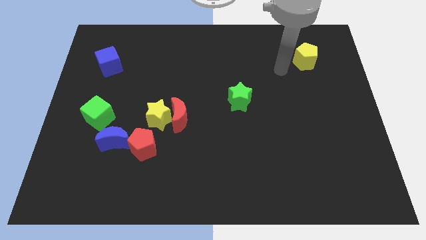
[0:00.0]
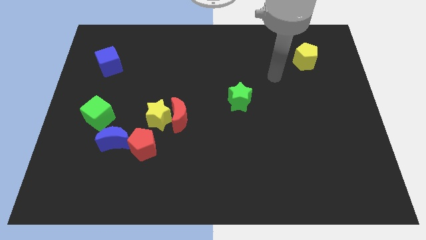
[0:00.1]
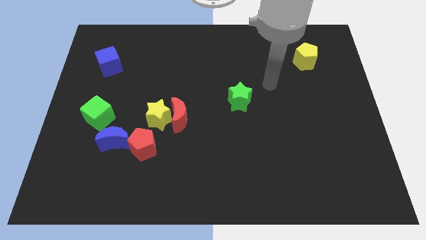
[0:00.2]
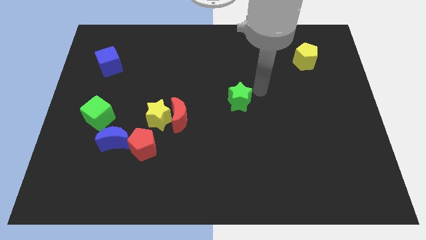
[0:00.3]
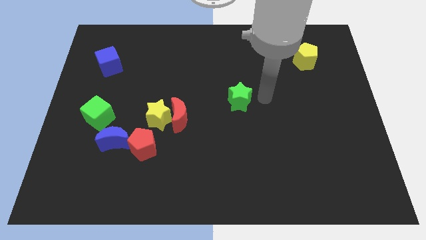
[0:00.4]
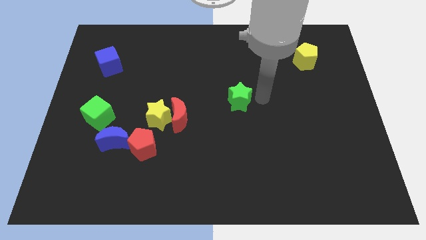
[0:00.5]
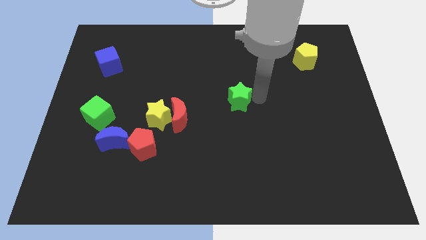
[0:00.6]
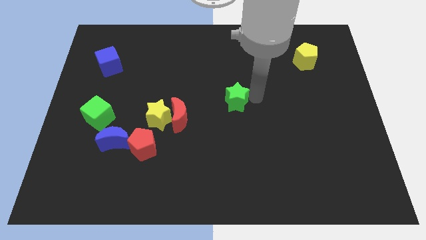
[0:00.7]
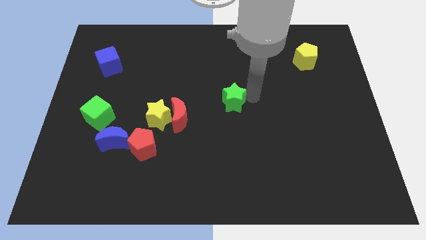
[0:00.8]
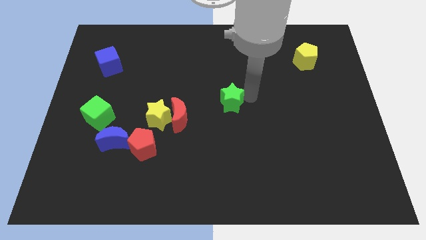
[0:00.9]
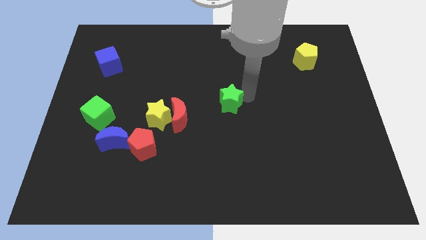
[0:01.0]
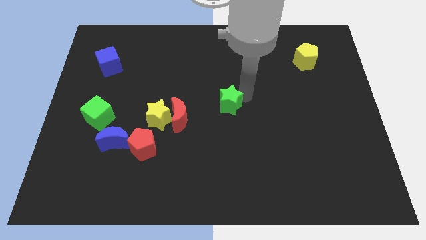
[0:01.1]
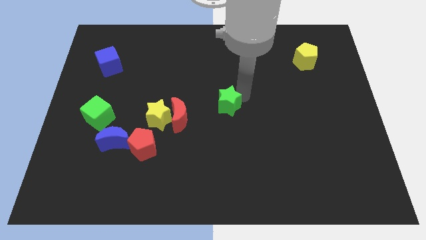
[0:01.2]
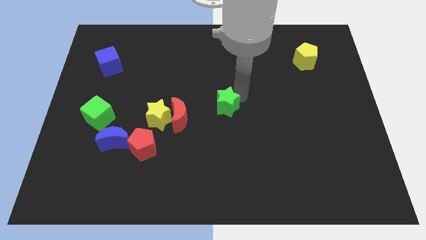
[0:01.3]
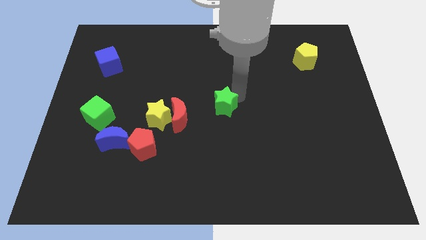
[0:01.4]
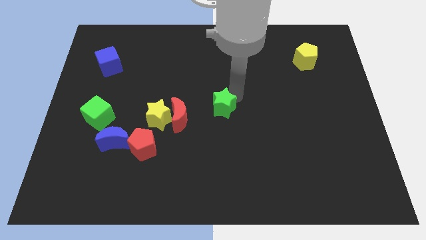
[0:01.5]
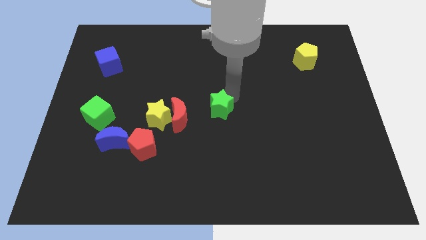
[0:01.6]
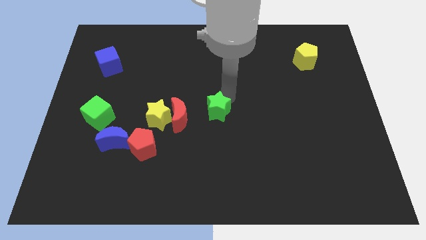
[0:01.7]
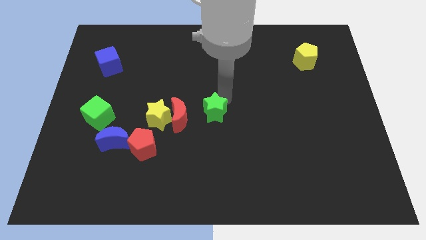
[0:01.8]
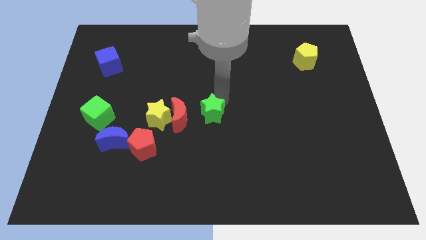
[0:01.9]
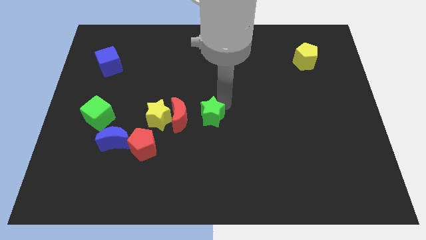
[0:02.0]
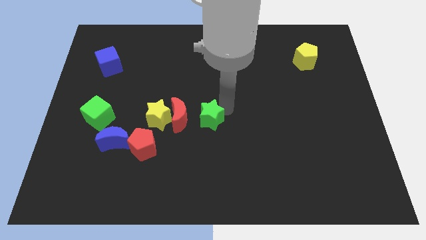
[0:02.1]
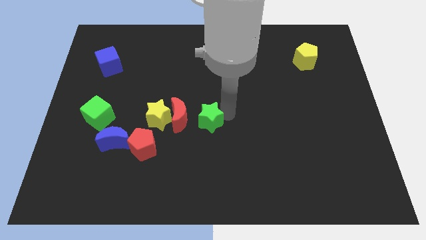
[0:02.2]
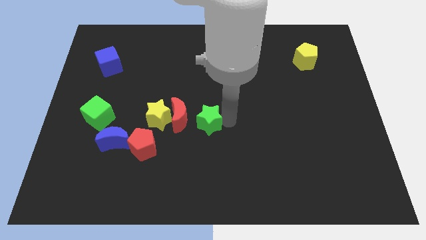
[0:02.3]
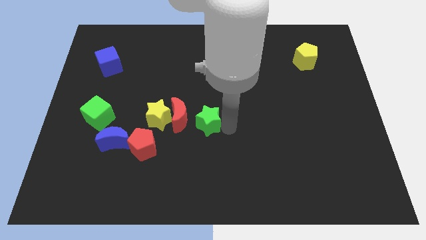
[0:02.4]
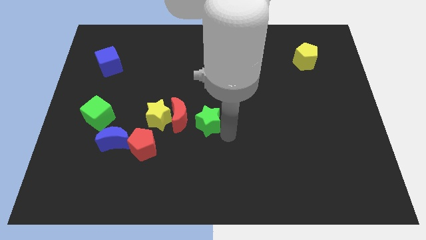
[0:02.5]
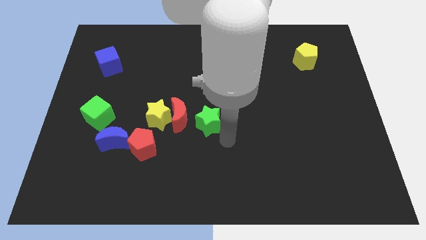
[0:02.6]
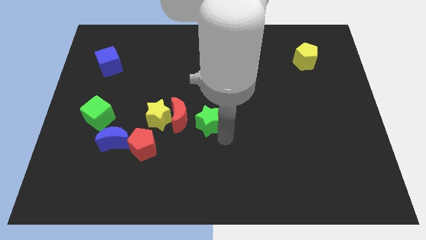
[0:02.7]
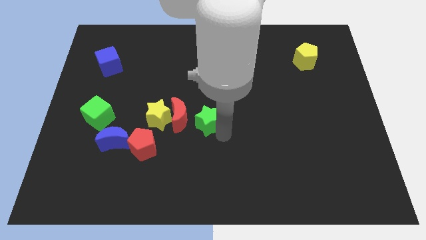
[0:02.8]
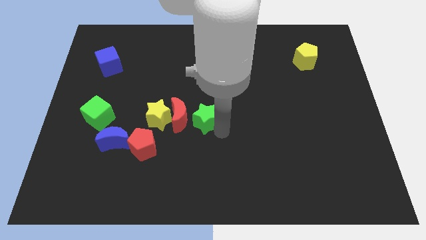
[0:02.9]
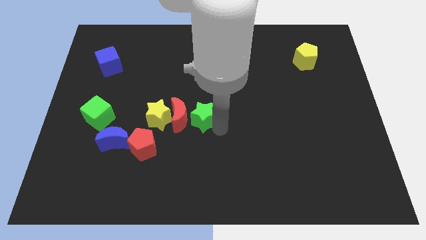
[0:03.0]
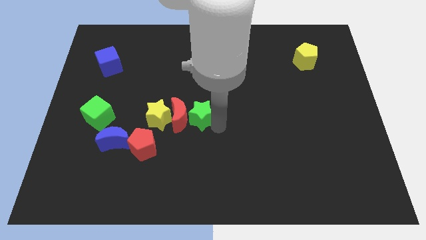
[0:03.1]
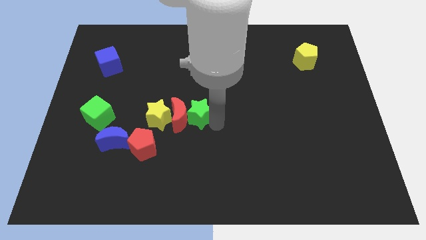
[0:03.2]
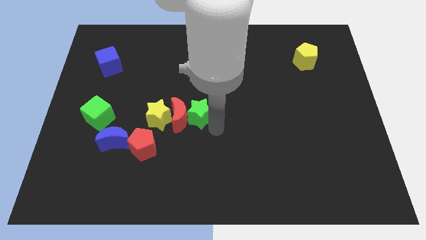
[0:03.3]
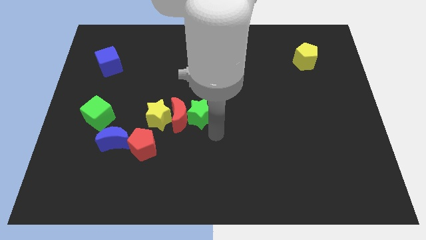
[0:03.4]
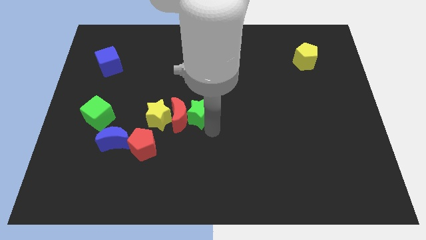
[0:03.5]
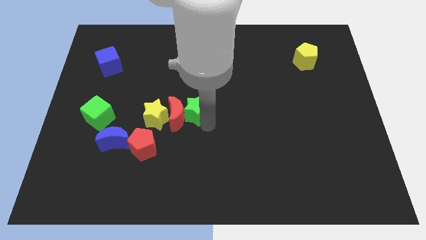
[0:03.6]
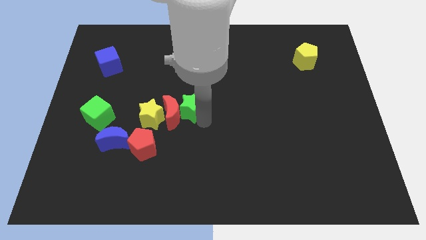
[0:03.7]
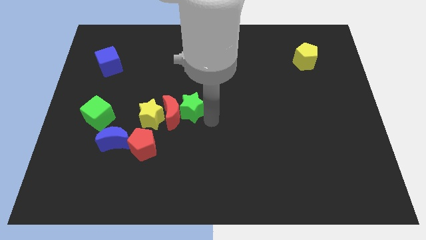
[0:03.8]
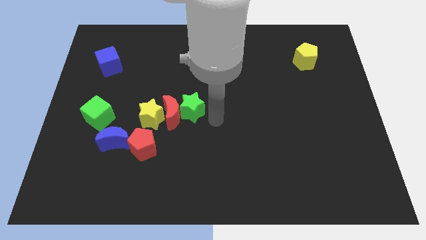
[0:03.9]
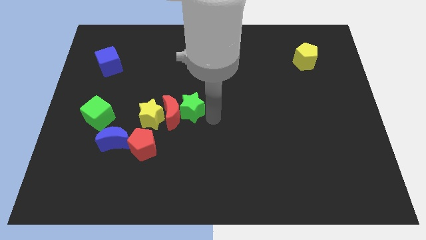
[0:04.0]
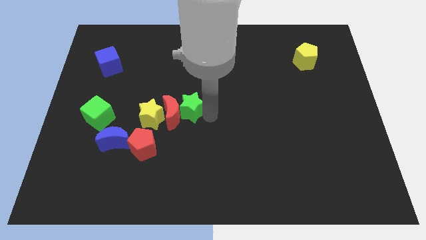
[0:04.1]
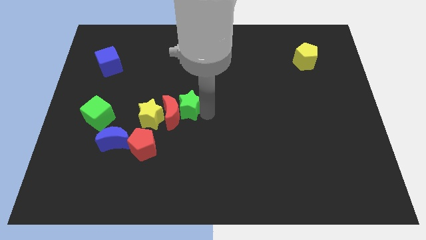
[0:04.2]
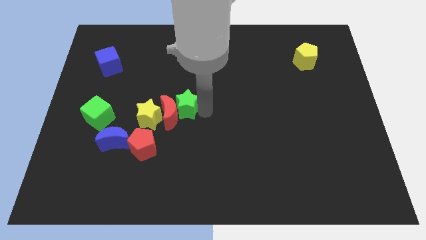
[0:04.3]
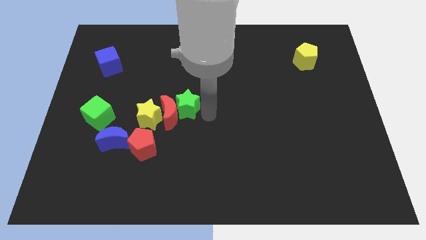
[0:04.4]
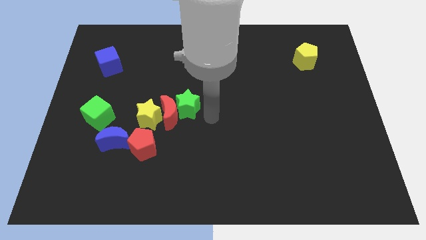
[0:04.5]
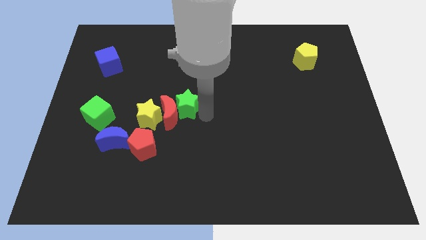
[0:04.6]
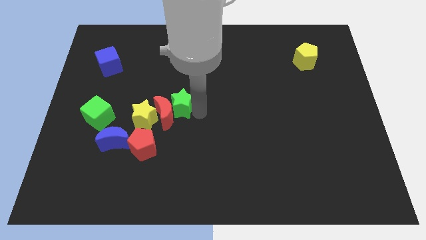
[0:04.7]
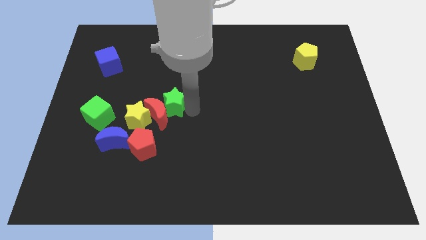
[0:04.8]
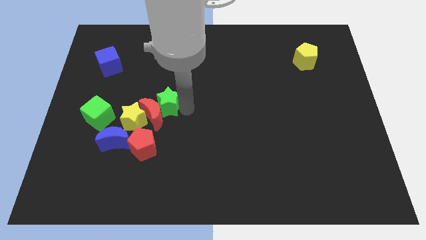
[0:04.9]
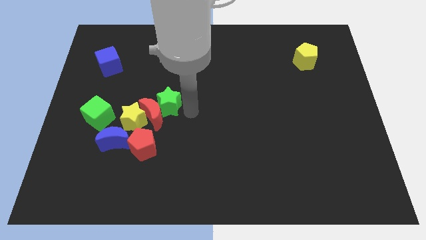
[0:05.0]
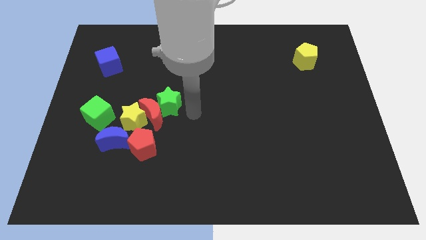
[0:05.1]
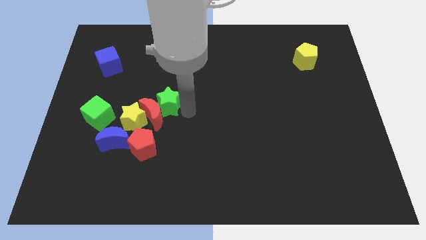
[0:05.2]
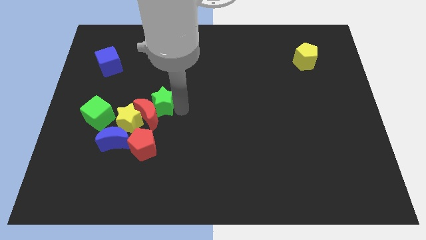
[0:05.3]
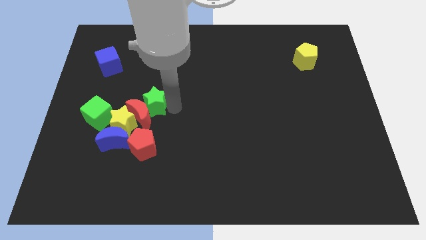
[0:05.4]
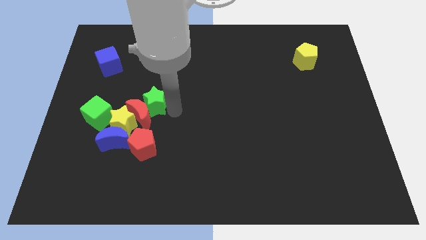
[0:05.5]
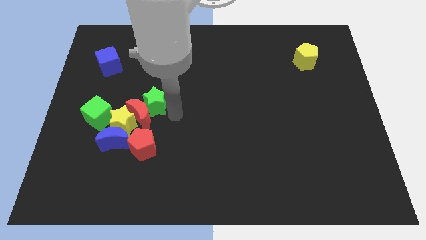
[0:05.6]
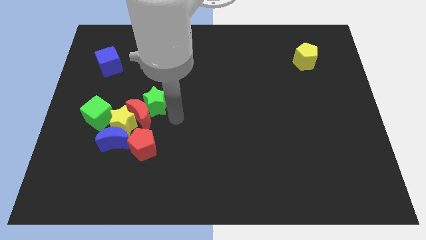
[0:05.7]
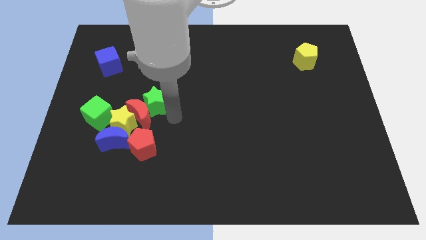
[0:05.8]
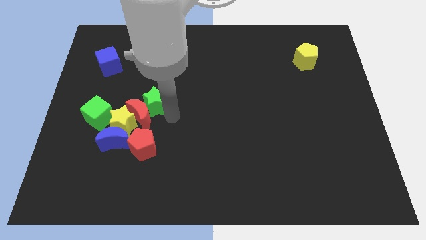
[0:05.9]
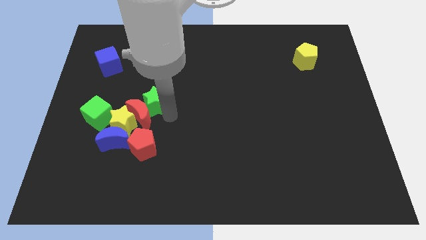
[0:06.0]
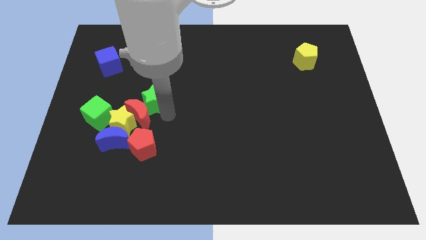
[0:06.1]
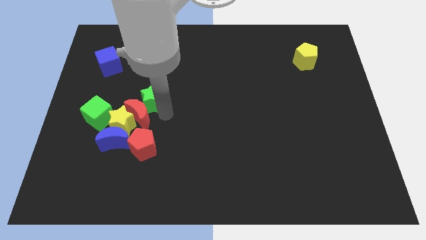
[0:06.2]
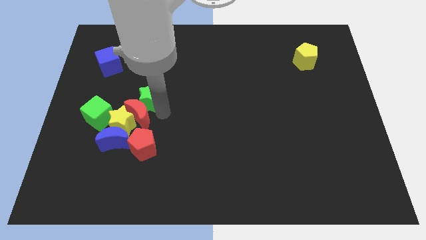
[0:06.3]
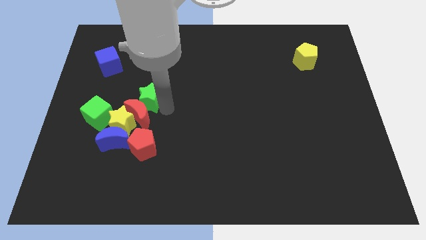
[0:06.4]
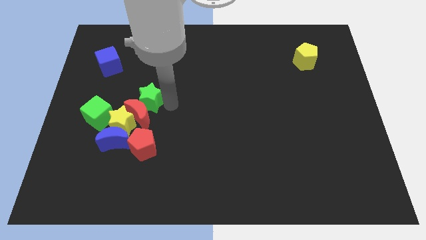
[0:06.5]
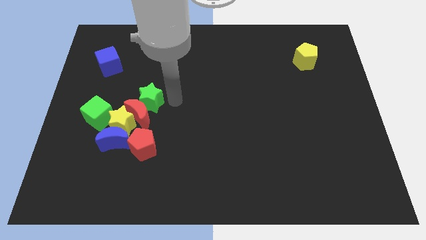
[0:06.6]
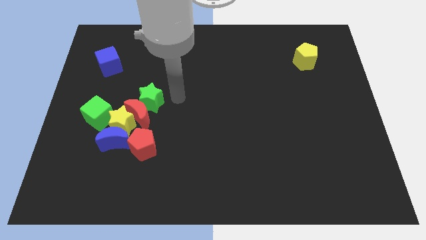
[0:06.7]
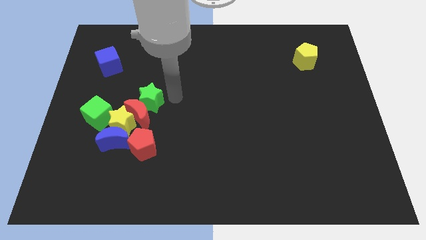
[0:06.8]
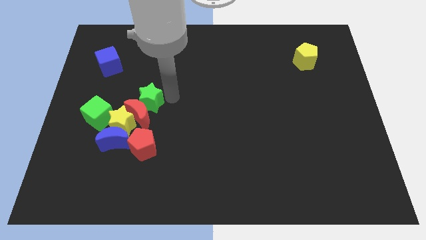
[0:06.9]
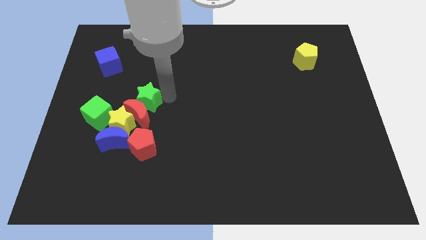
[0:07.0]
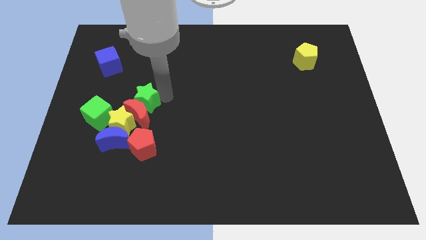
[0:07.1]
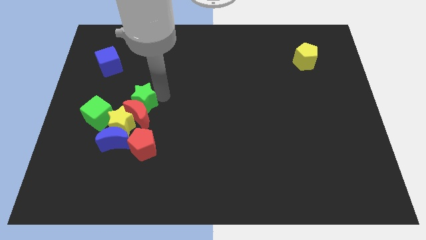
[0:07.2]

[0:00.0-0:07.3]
slide the green star to the top of the blue moon
